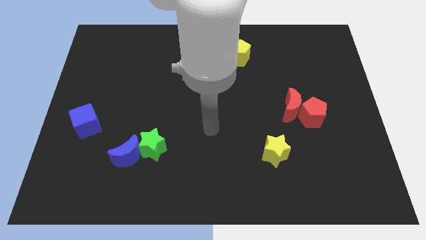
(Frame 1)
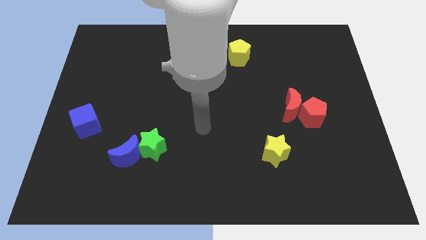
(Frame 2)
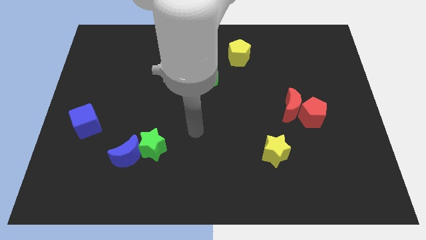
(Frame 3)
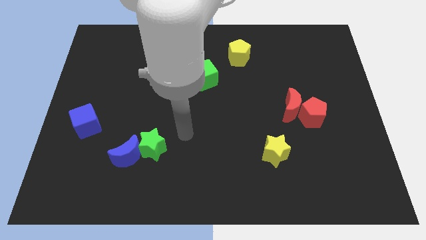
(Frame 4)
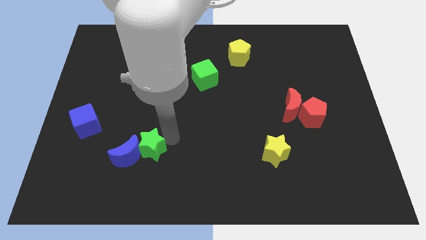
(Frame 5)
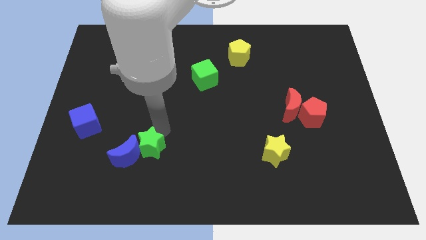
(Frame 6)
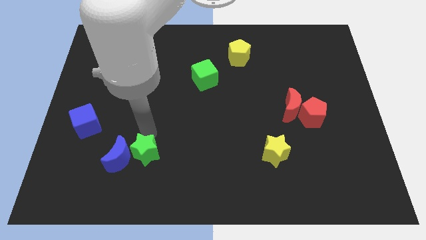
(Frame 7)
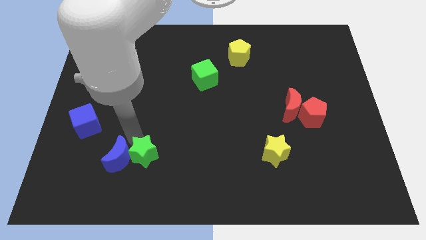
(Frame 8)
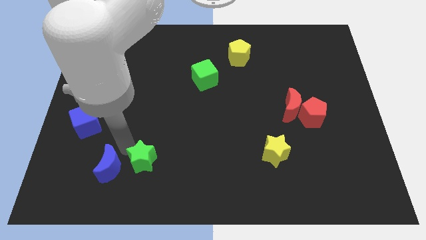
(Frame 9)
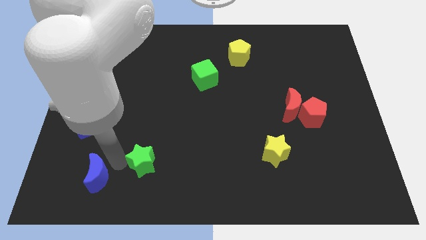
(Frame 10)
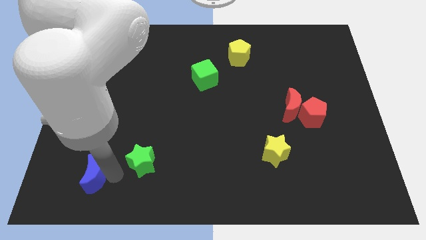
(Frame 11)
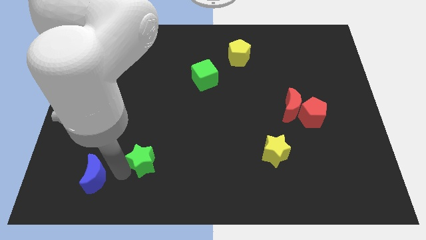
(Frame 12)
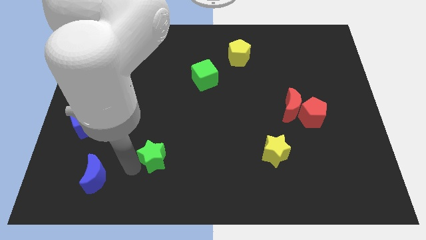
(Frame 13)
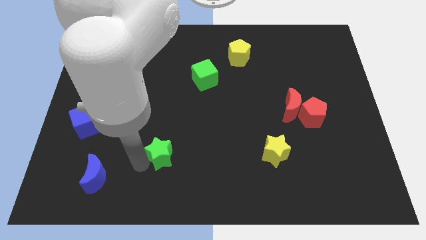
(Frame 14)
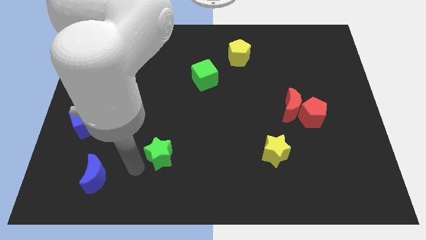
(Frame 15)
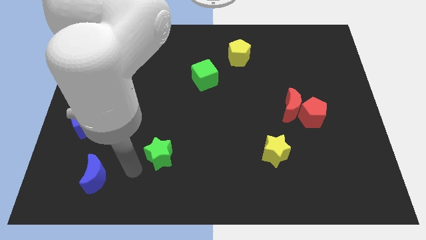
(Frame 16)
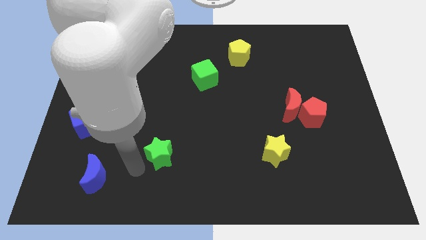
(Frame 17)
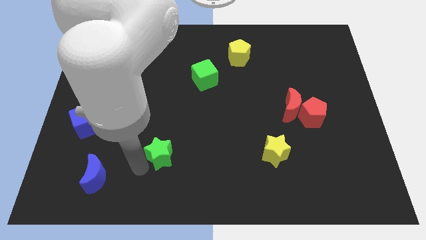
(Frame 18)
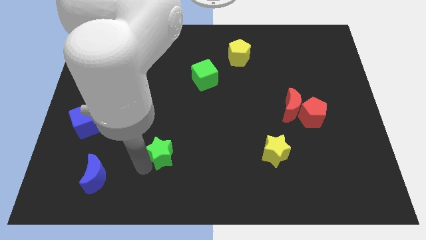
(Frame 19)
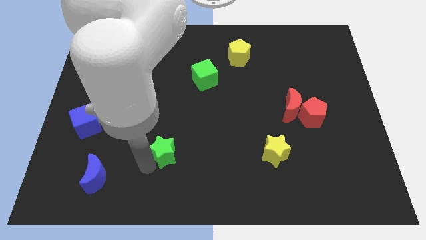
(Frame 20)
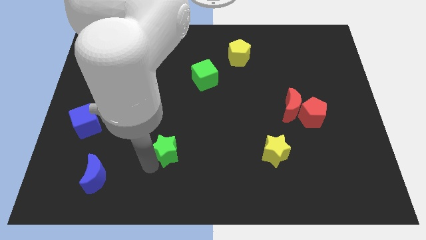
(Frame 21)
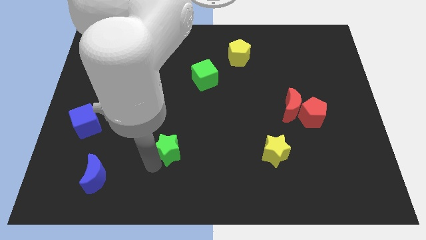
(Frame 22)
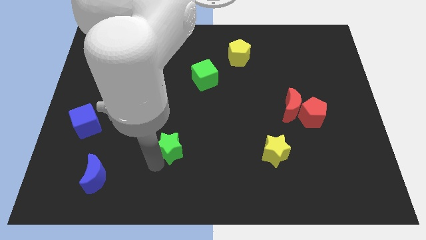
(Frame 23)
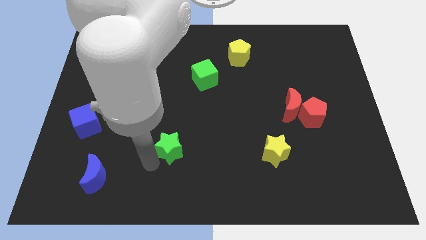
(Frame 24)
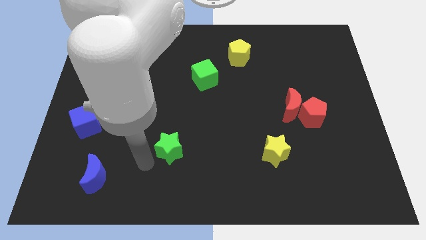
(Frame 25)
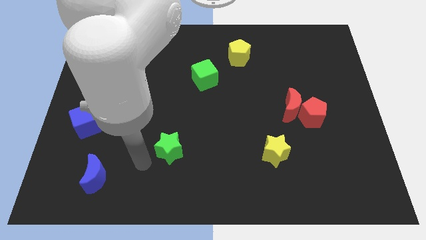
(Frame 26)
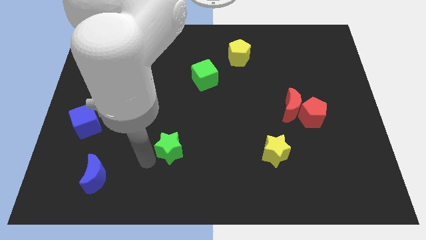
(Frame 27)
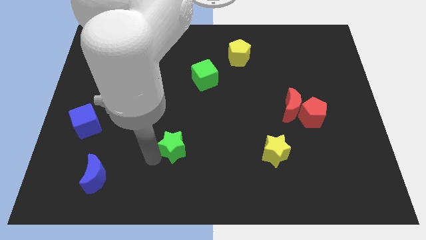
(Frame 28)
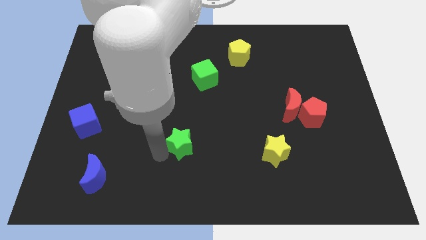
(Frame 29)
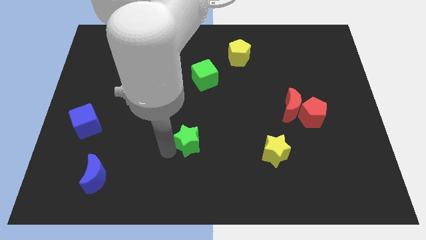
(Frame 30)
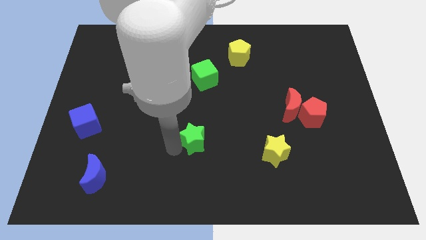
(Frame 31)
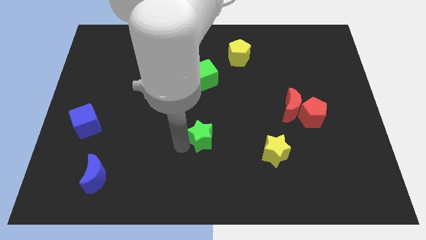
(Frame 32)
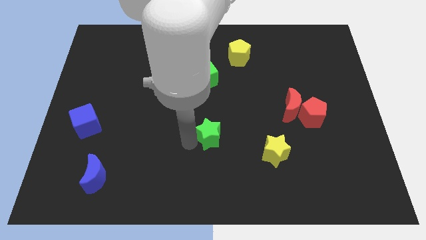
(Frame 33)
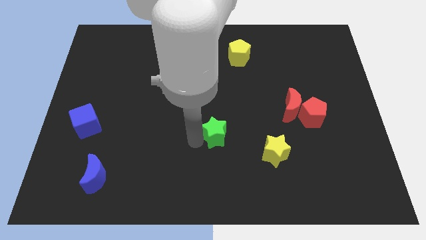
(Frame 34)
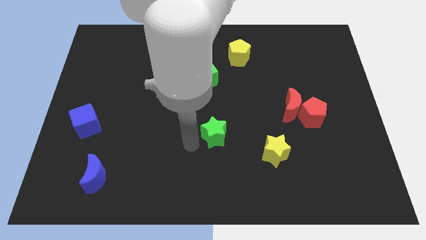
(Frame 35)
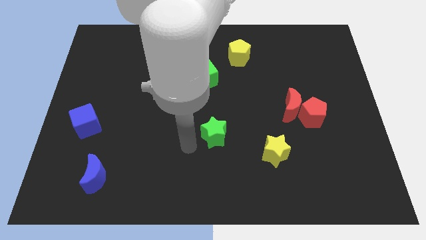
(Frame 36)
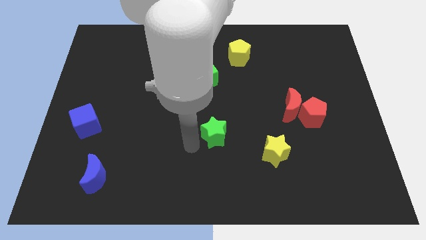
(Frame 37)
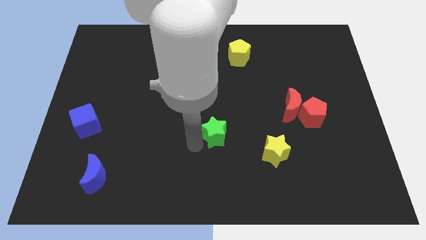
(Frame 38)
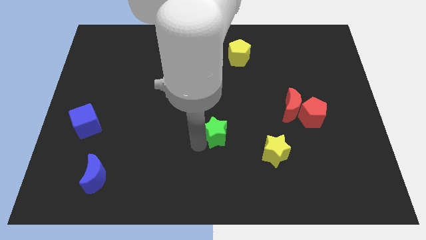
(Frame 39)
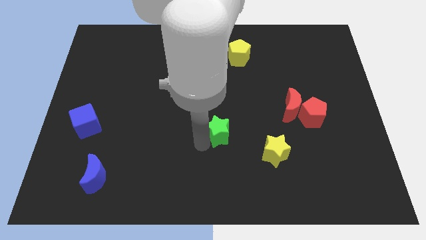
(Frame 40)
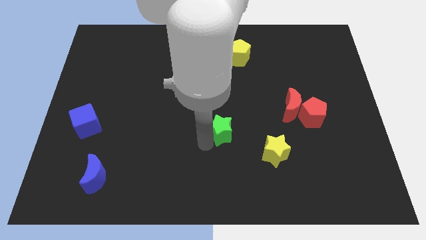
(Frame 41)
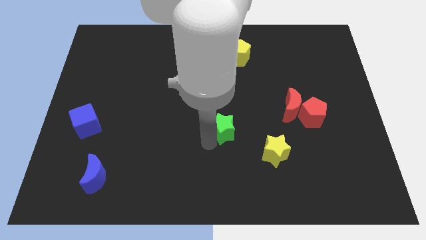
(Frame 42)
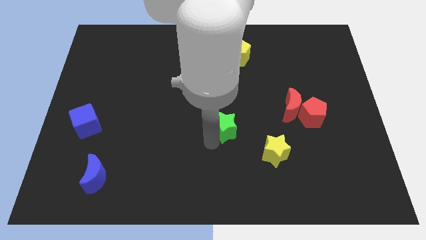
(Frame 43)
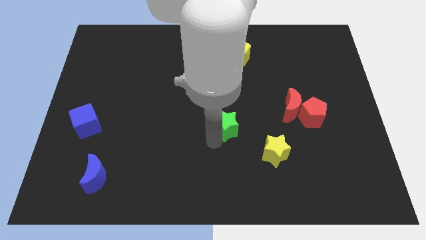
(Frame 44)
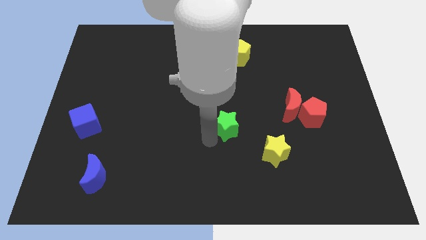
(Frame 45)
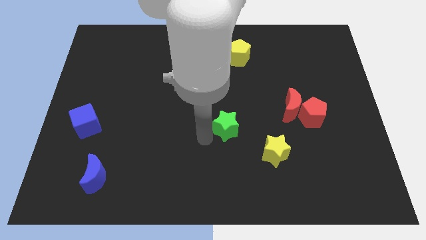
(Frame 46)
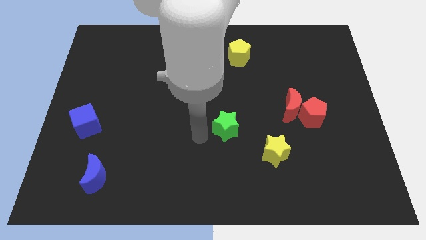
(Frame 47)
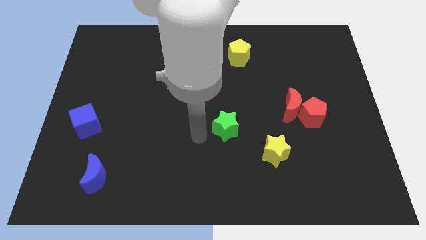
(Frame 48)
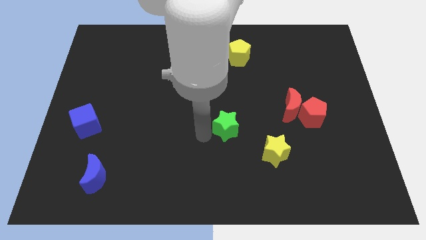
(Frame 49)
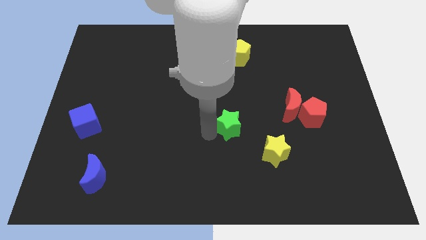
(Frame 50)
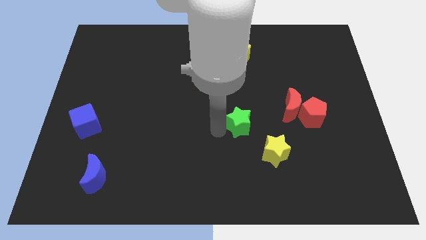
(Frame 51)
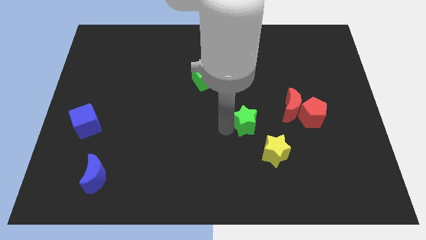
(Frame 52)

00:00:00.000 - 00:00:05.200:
put the green star just left of the red pentagon

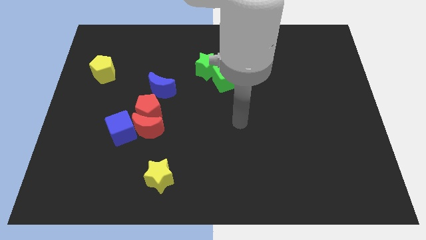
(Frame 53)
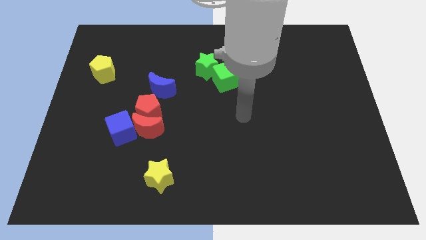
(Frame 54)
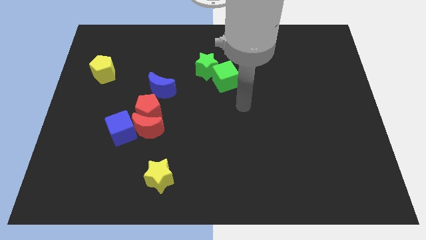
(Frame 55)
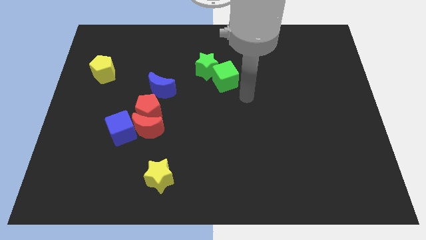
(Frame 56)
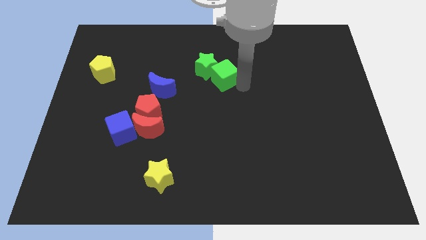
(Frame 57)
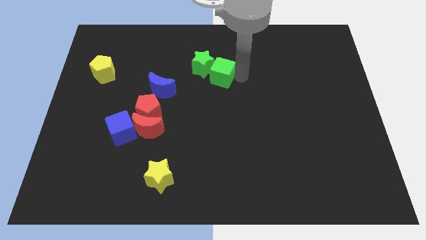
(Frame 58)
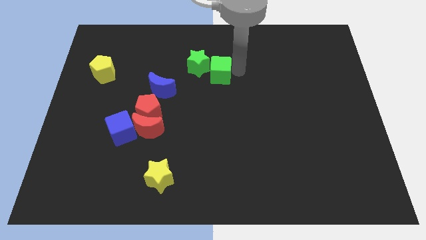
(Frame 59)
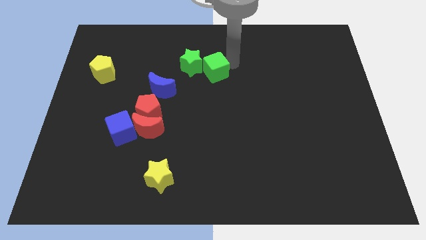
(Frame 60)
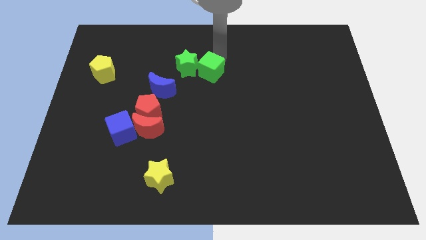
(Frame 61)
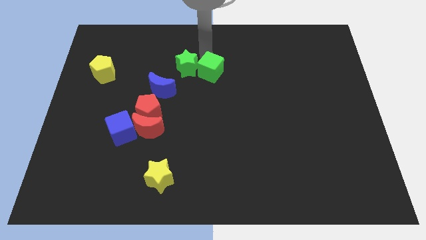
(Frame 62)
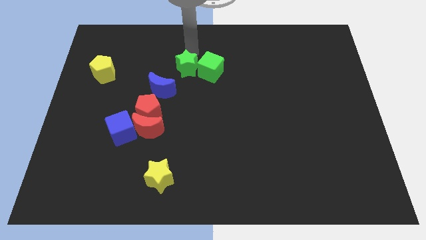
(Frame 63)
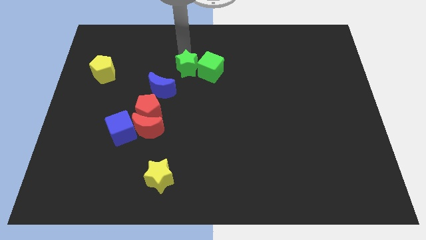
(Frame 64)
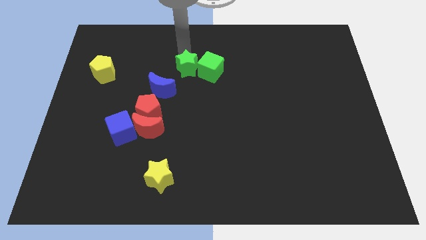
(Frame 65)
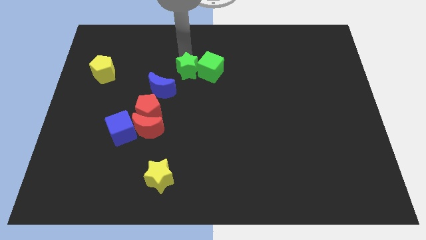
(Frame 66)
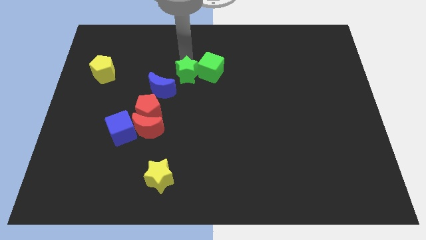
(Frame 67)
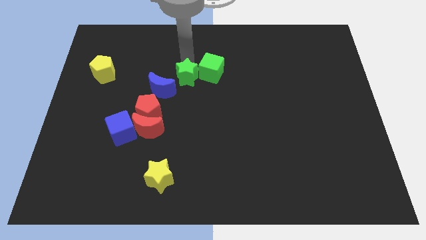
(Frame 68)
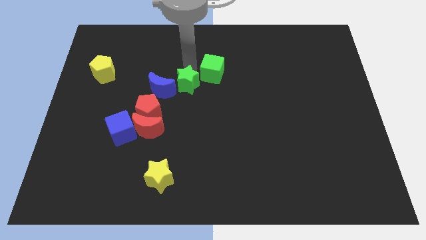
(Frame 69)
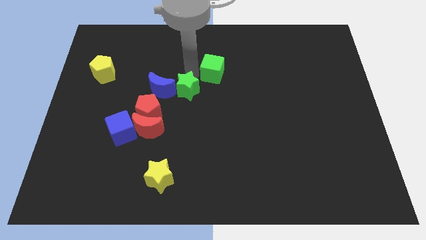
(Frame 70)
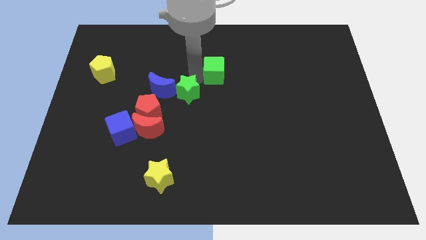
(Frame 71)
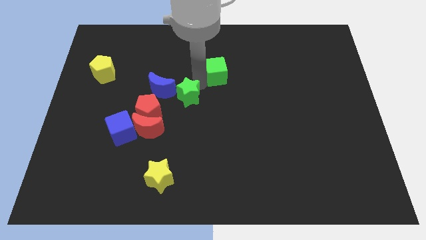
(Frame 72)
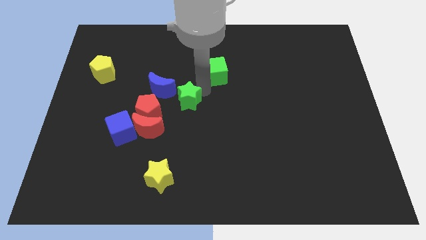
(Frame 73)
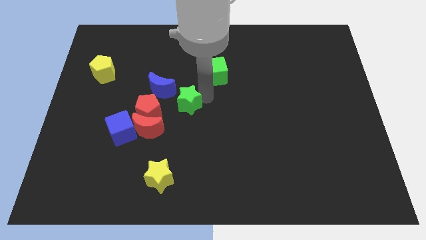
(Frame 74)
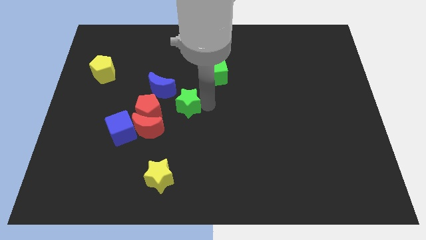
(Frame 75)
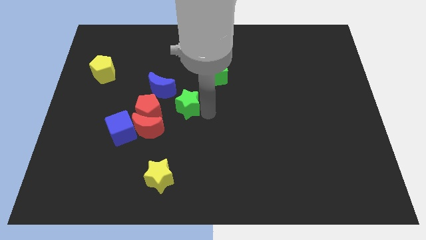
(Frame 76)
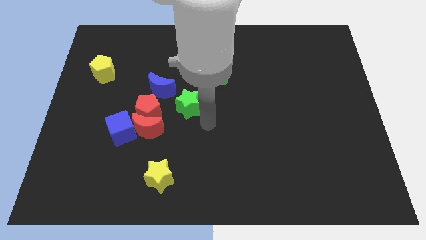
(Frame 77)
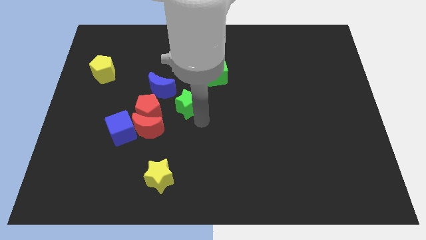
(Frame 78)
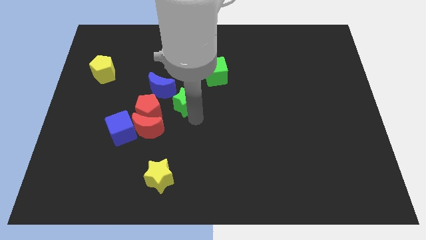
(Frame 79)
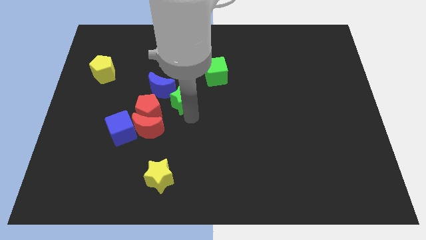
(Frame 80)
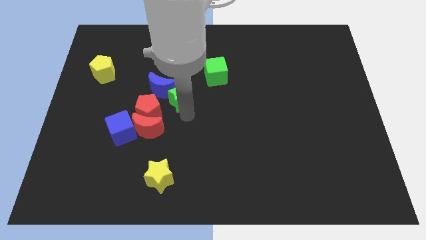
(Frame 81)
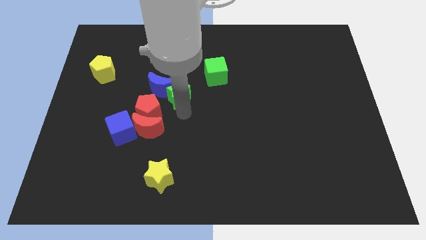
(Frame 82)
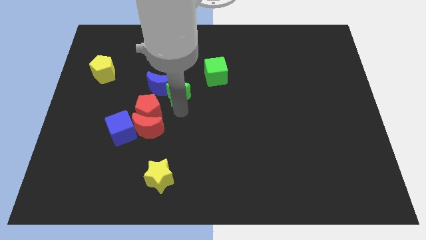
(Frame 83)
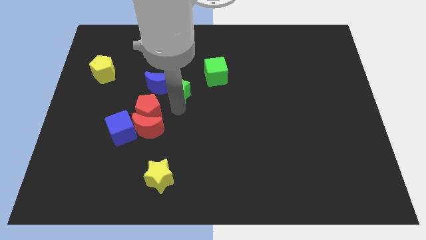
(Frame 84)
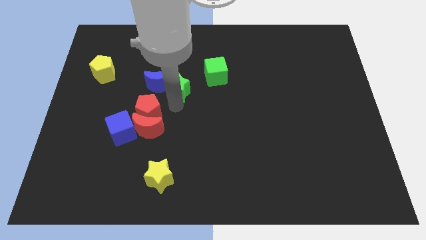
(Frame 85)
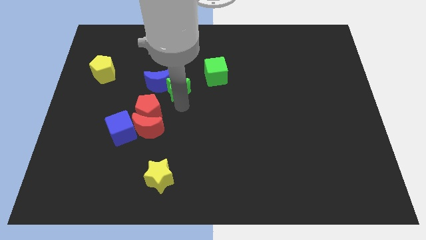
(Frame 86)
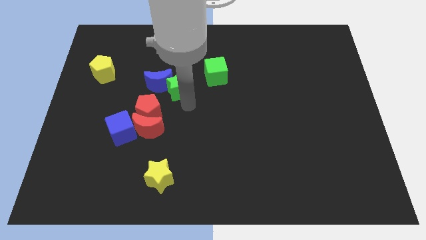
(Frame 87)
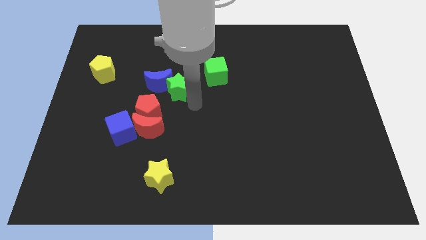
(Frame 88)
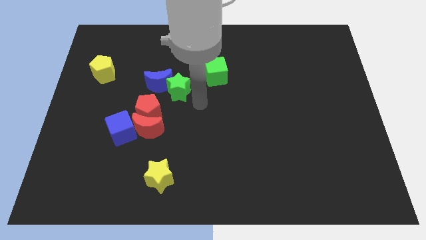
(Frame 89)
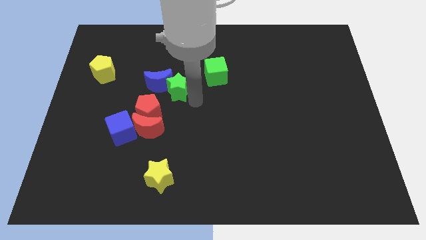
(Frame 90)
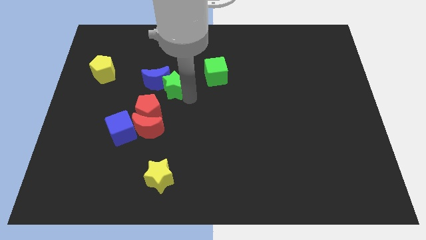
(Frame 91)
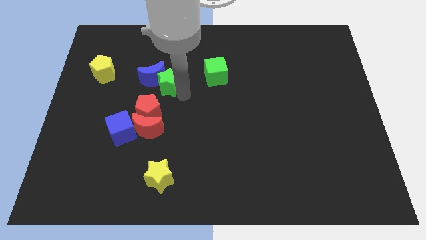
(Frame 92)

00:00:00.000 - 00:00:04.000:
slide the green star above the red moon
